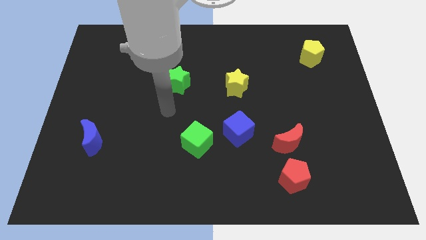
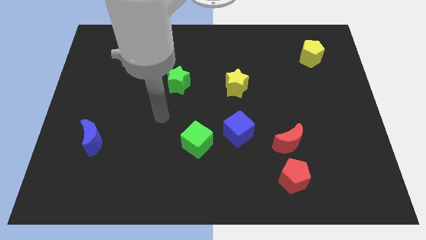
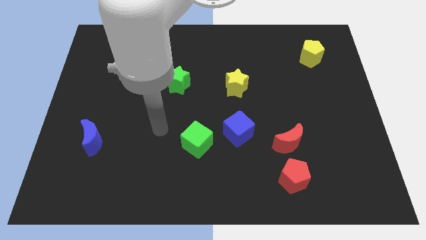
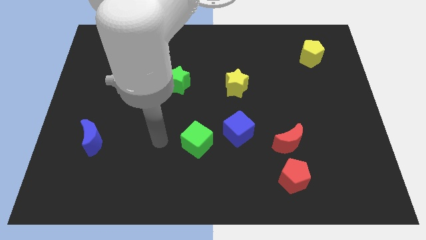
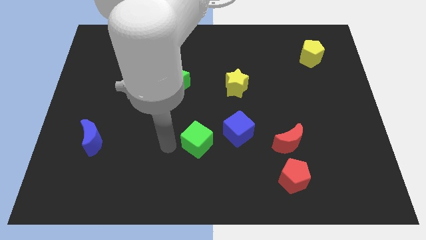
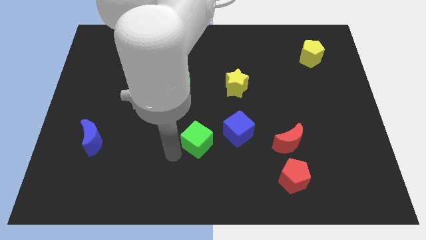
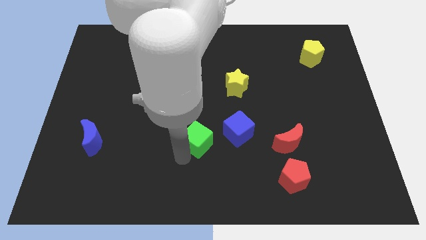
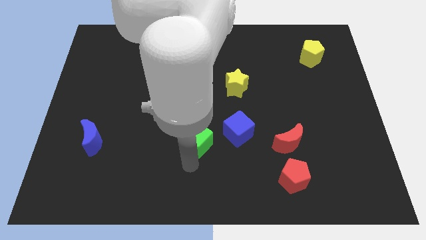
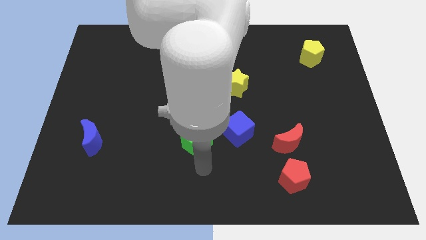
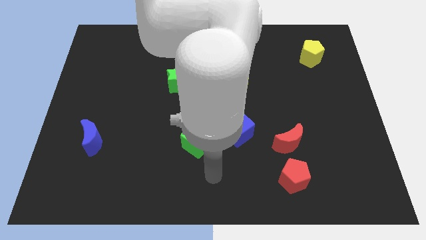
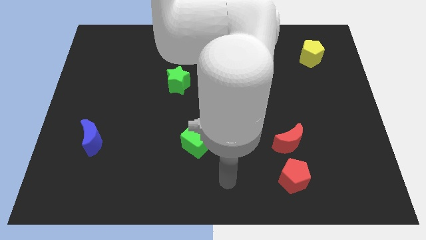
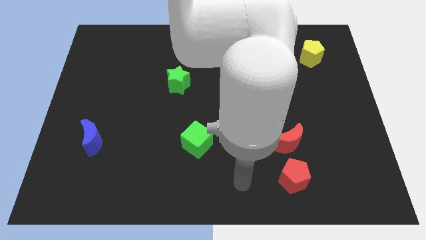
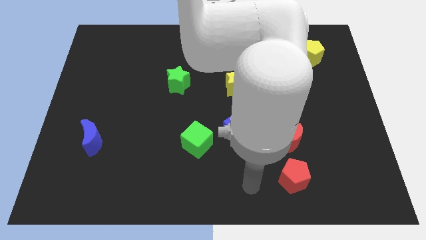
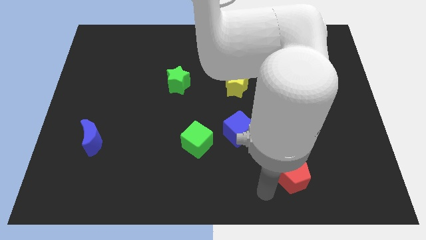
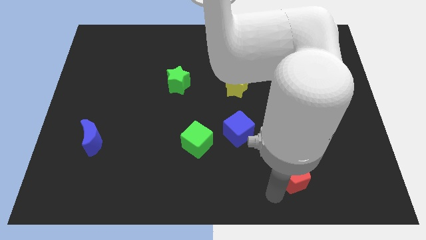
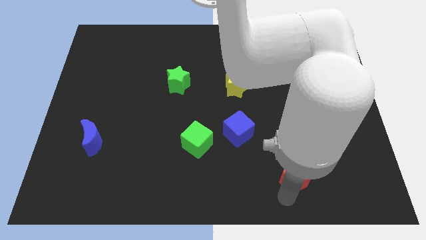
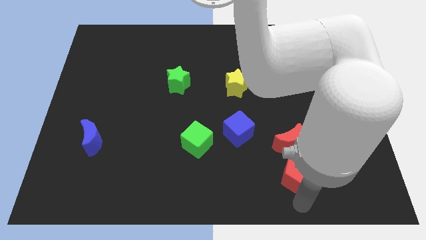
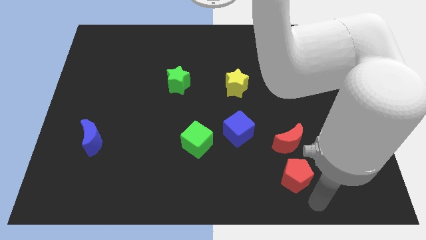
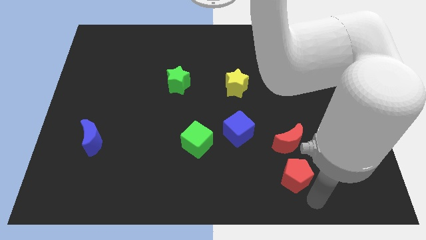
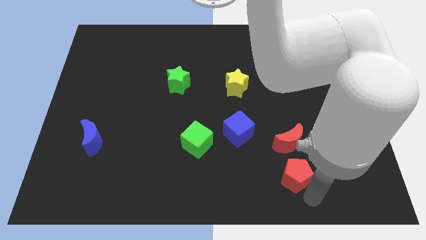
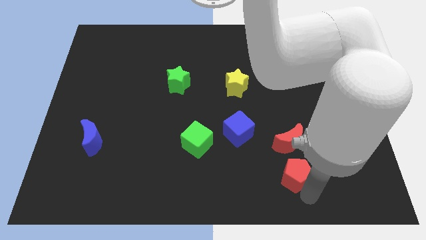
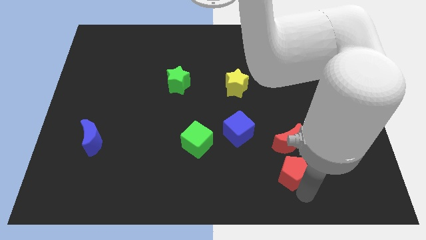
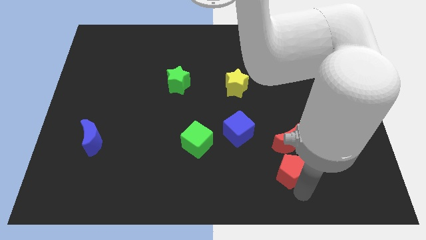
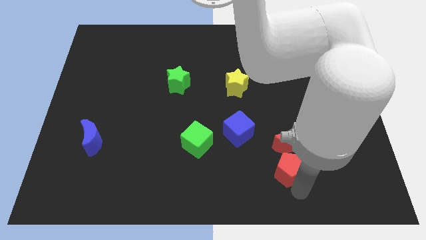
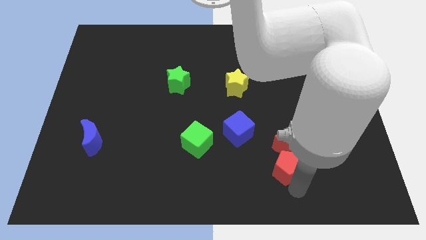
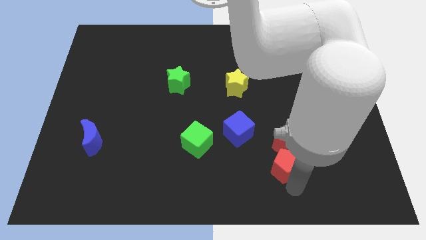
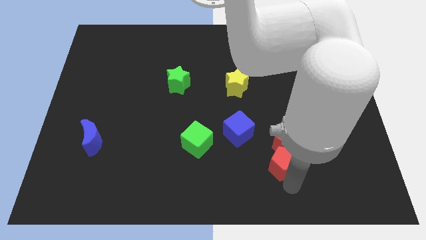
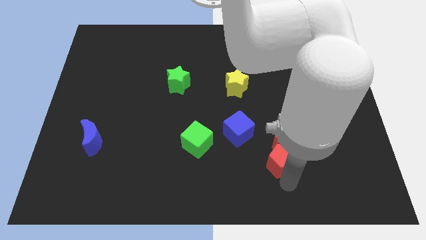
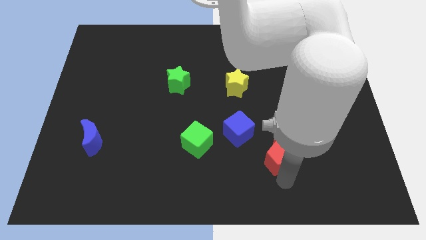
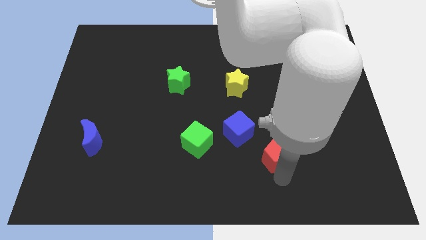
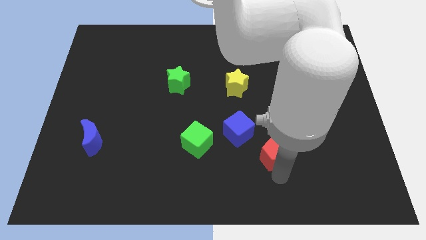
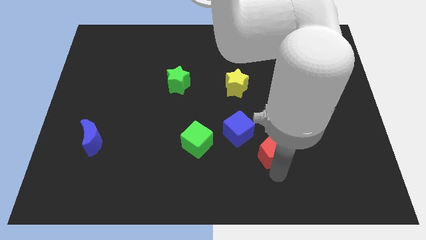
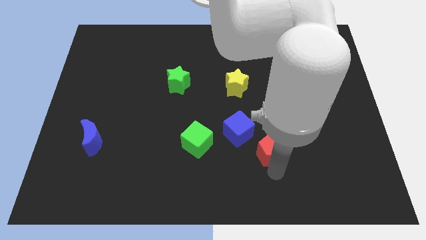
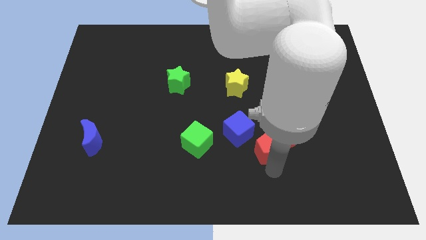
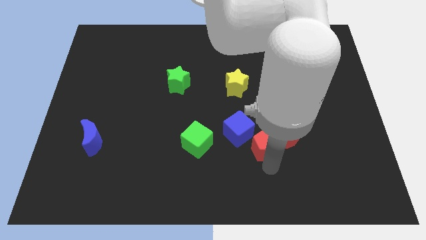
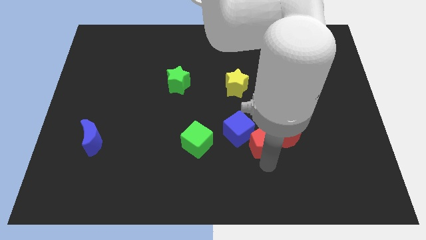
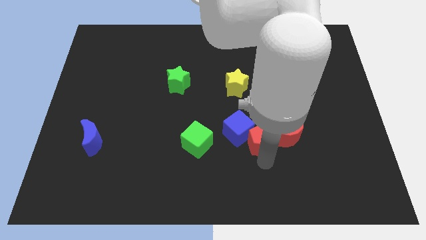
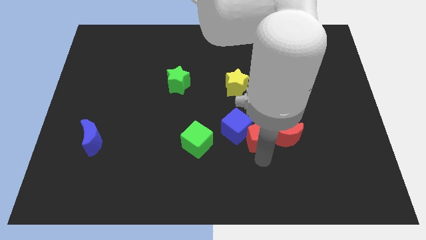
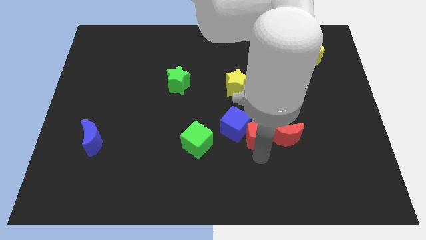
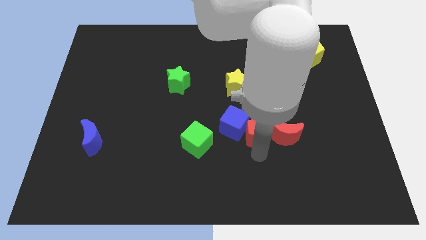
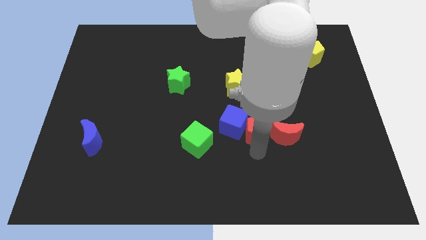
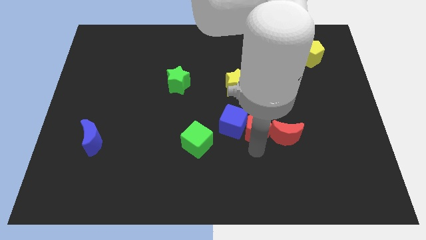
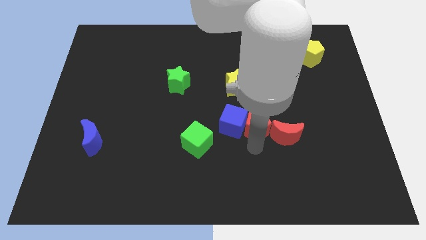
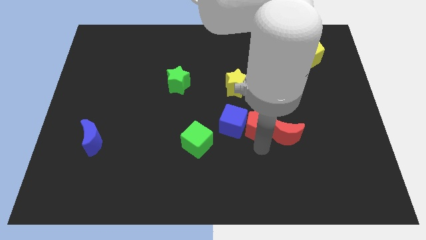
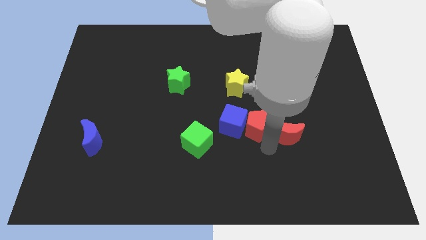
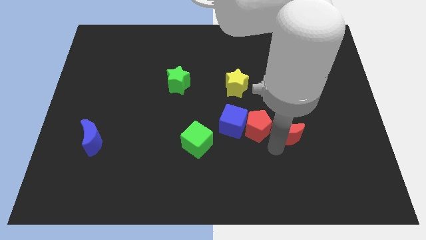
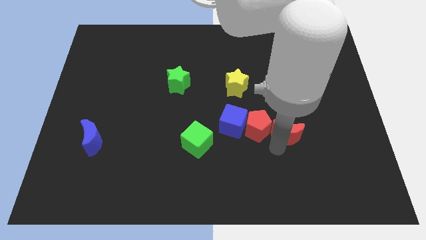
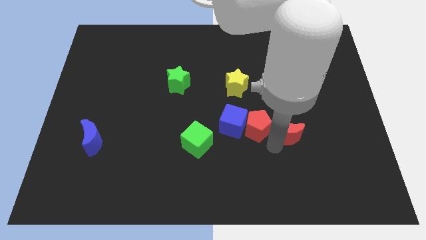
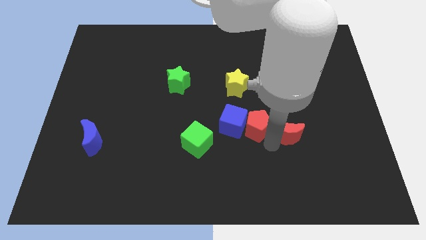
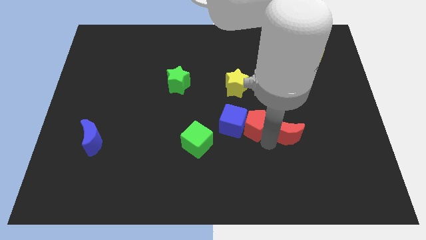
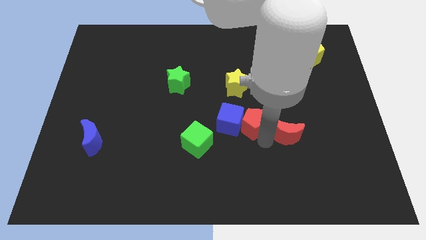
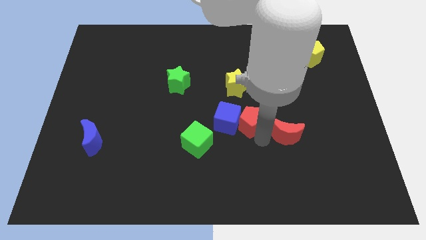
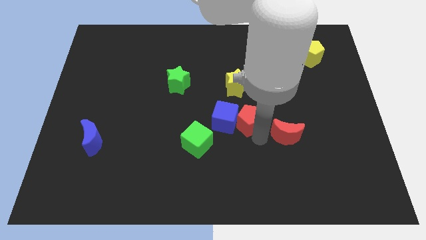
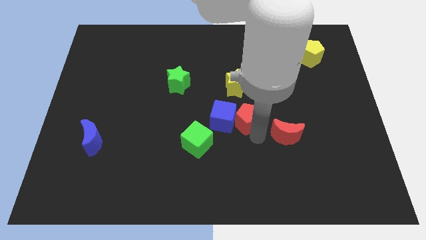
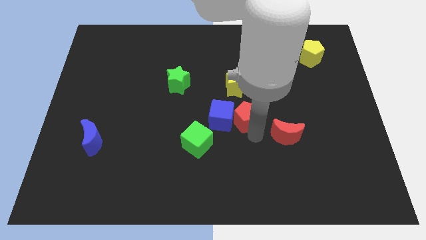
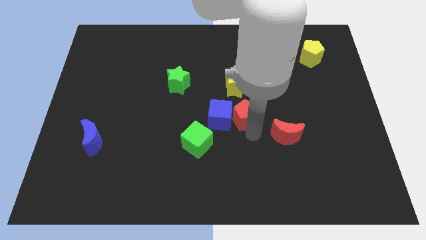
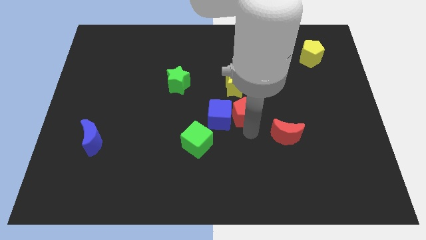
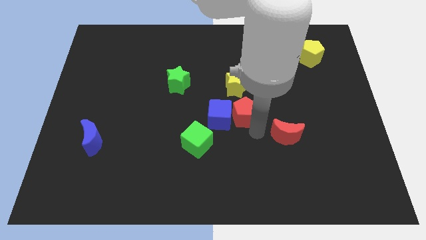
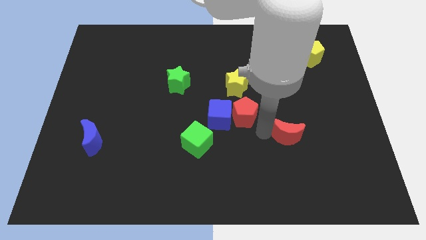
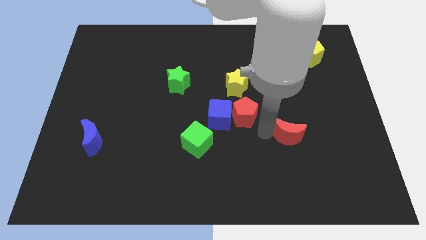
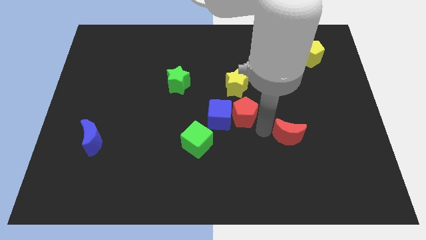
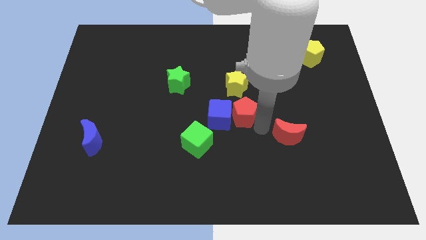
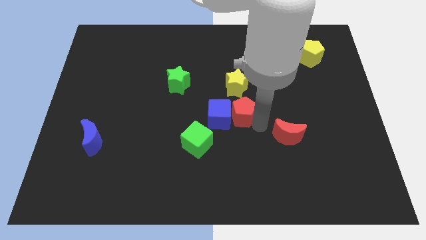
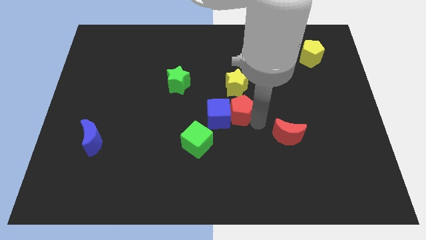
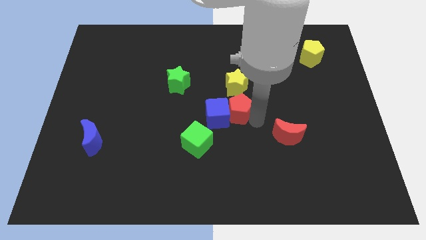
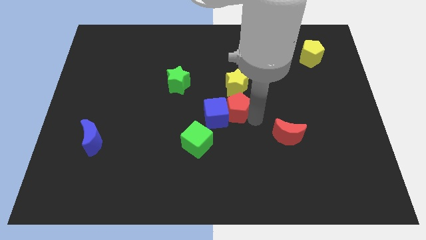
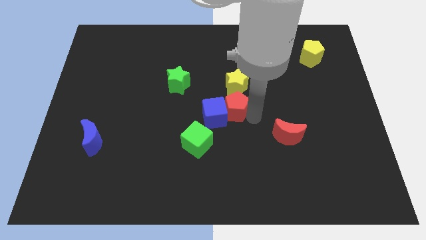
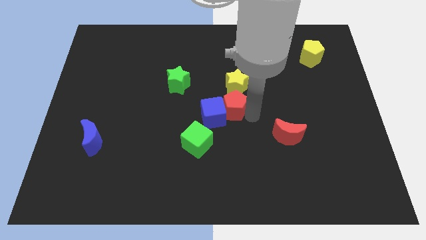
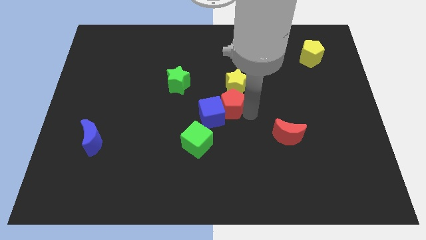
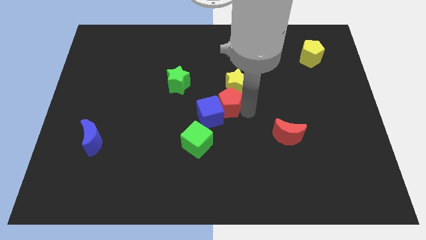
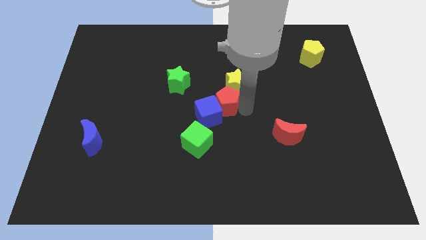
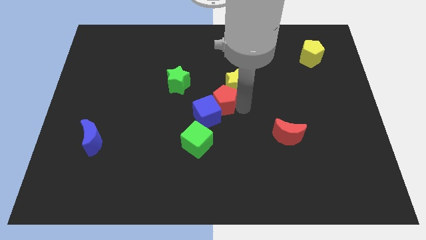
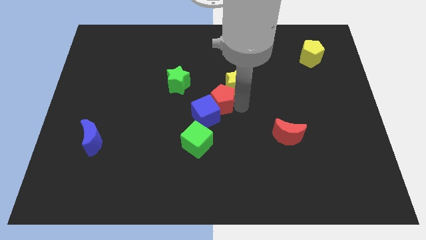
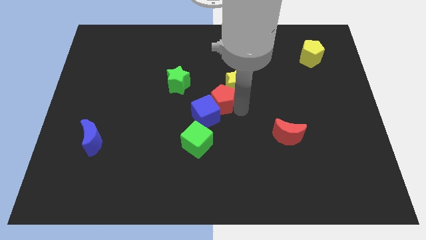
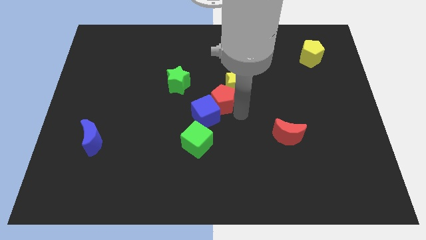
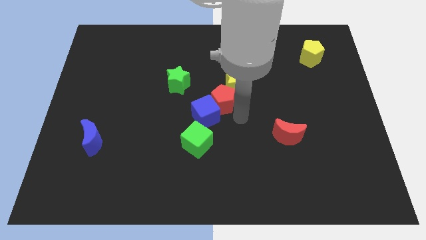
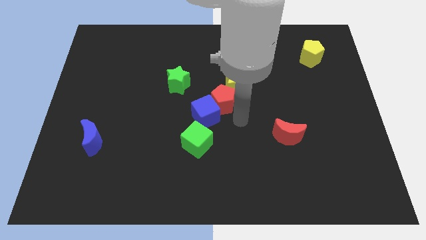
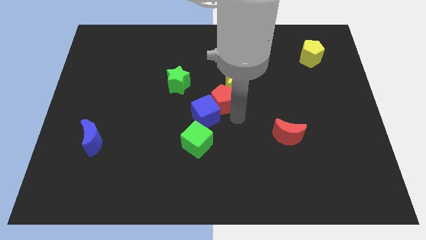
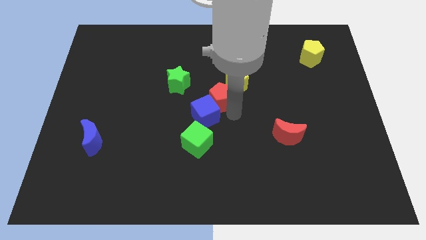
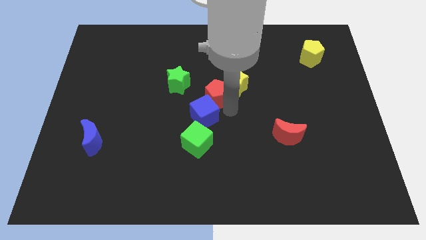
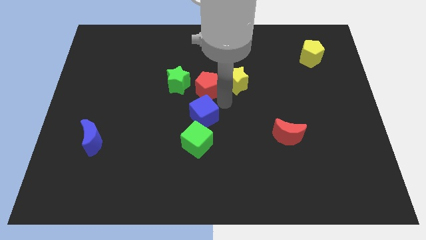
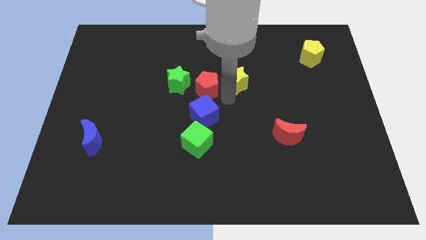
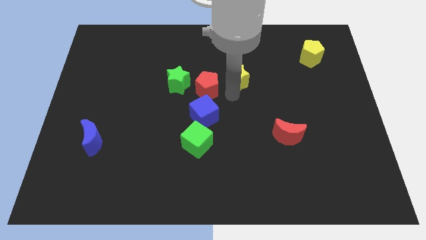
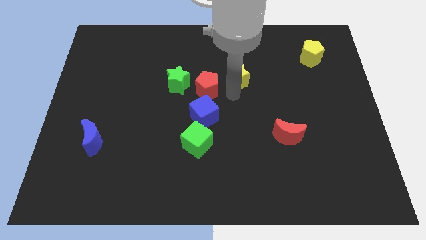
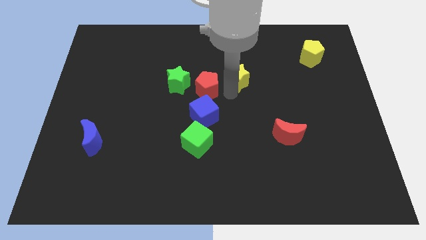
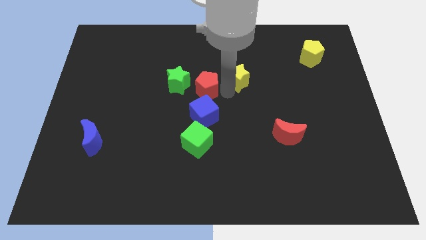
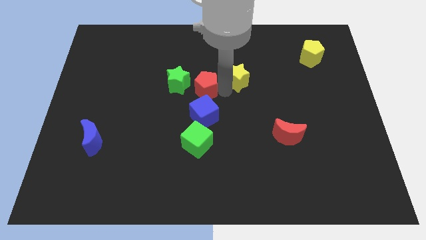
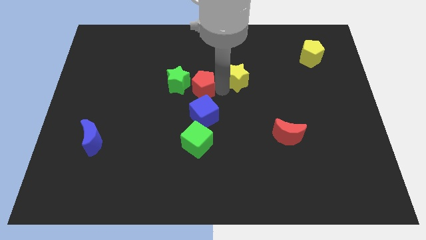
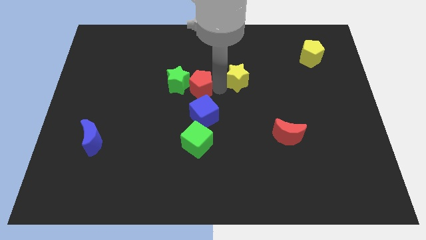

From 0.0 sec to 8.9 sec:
push the red pentagon next to the green star
